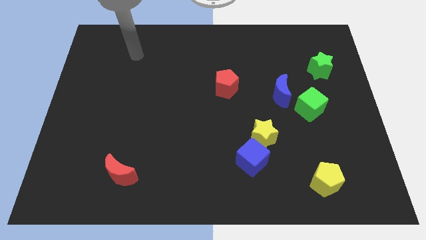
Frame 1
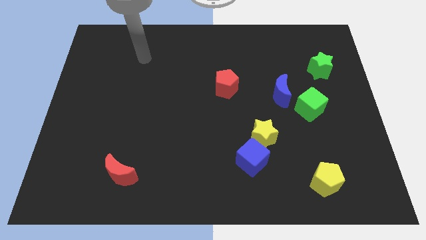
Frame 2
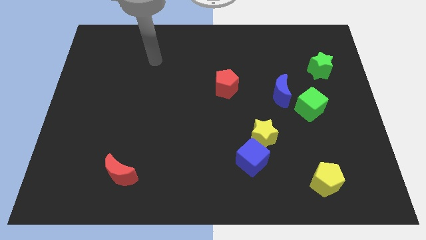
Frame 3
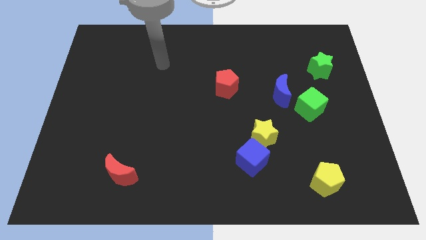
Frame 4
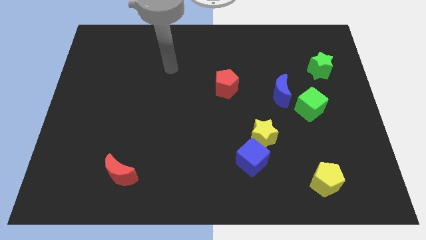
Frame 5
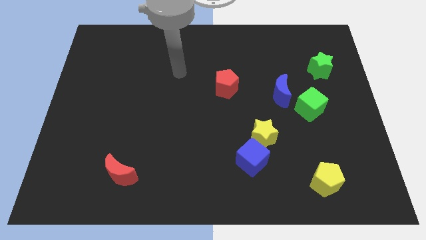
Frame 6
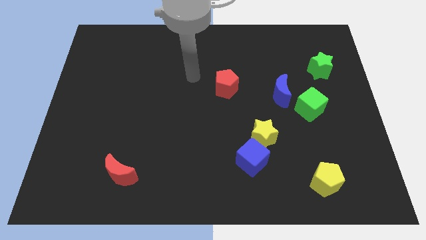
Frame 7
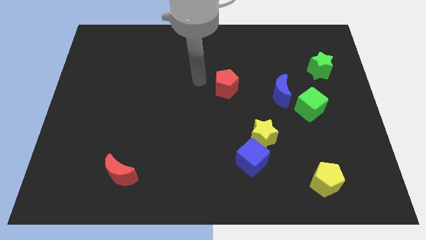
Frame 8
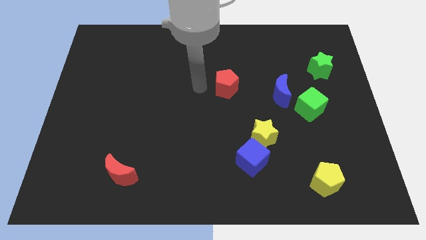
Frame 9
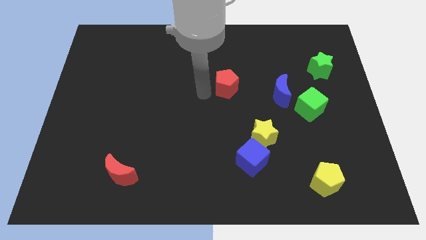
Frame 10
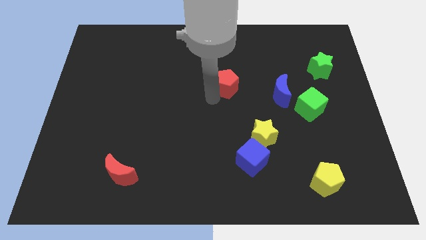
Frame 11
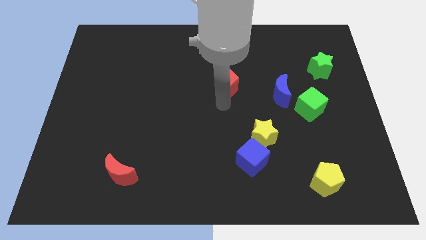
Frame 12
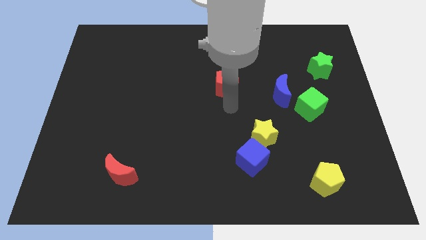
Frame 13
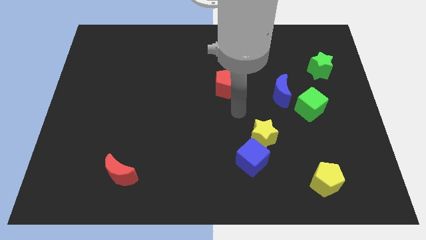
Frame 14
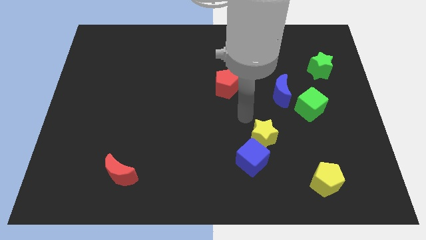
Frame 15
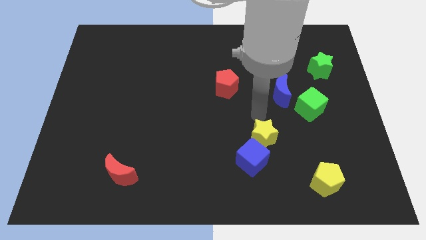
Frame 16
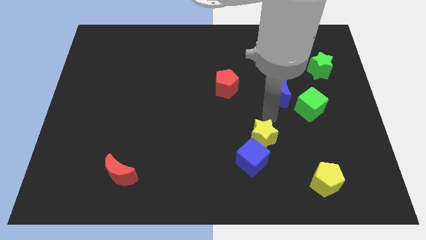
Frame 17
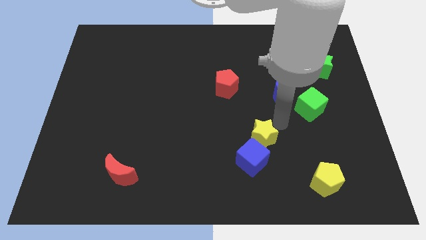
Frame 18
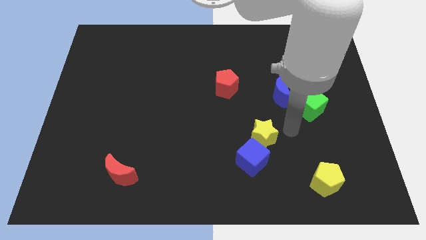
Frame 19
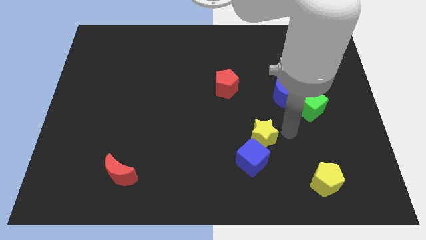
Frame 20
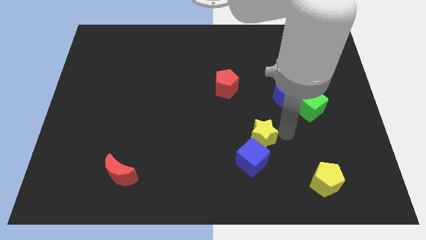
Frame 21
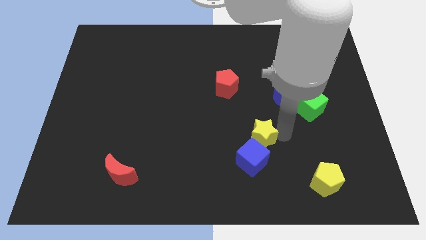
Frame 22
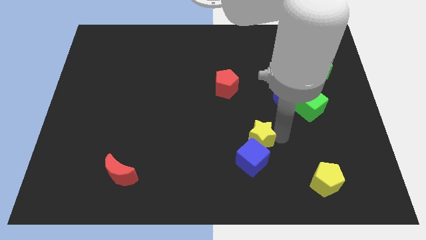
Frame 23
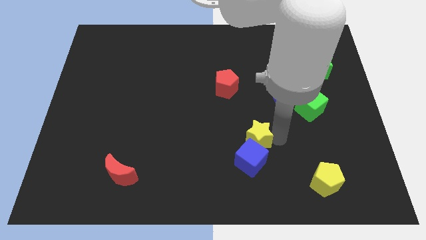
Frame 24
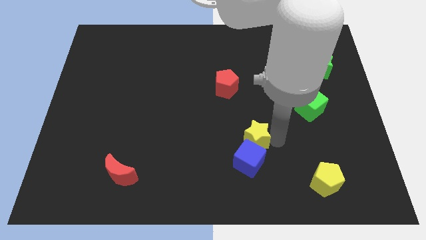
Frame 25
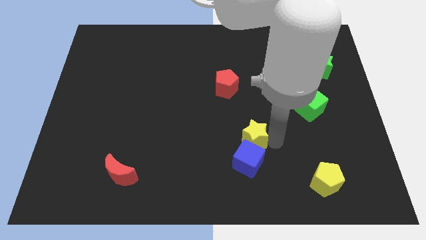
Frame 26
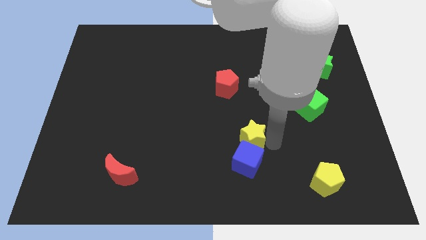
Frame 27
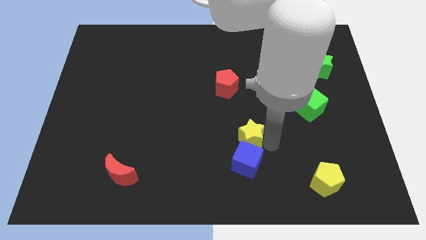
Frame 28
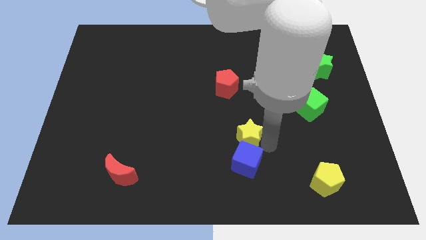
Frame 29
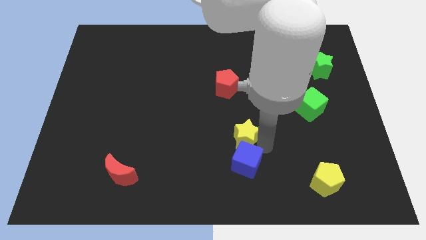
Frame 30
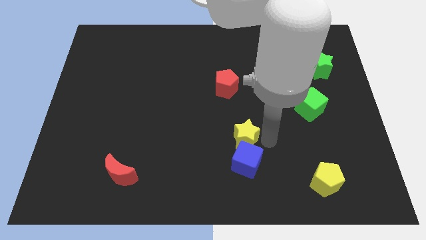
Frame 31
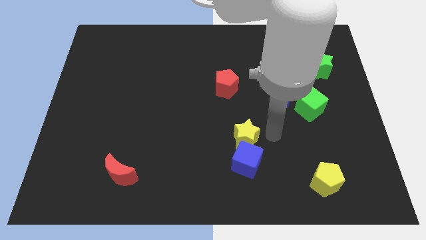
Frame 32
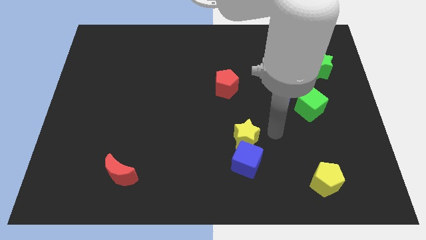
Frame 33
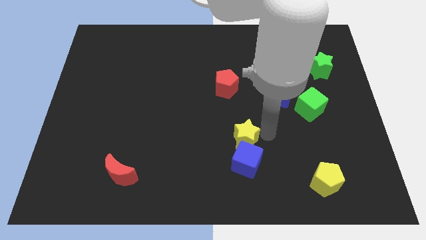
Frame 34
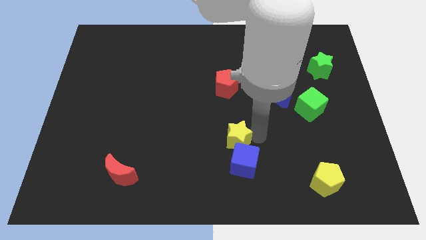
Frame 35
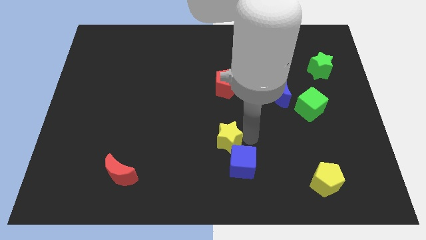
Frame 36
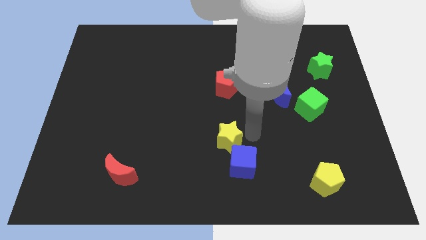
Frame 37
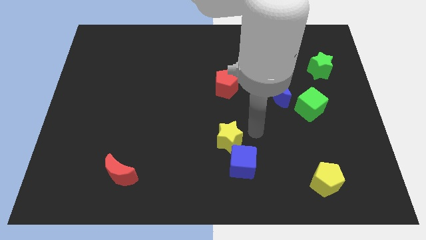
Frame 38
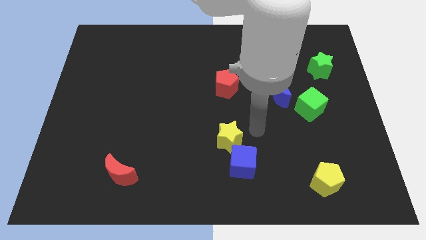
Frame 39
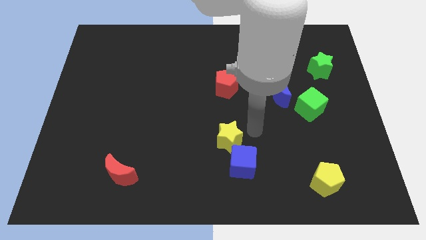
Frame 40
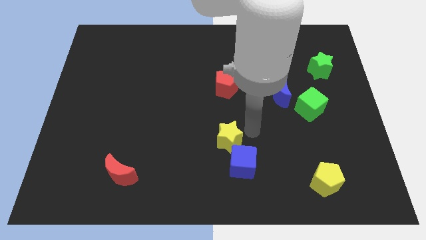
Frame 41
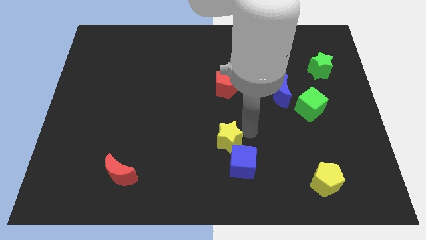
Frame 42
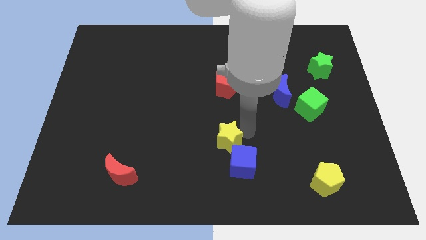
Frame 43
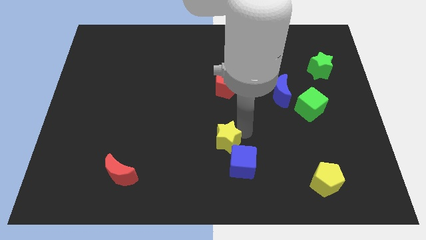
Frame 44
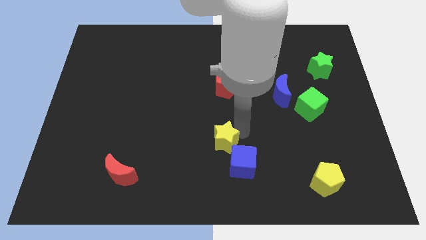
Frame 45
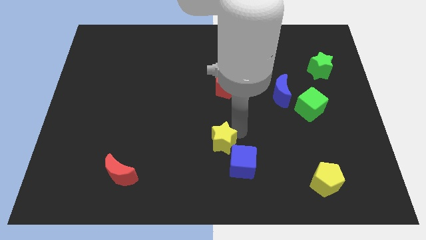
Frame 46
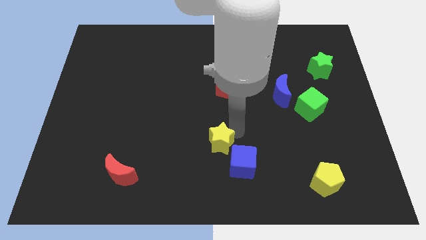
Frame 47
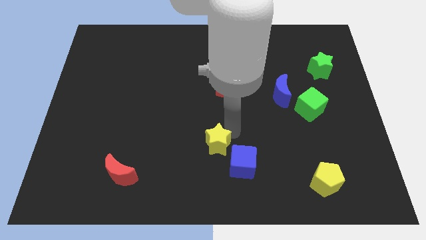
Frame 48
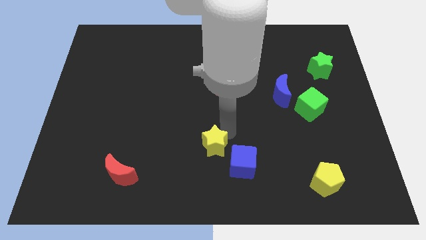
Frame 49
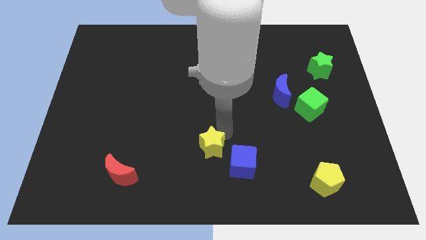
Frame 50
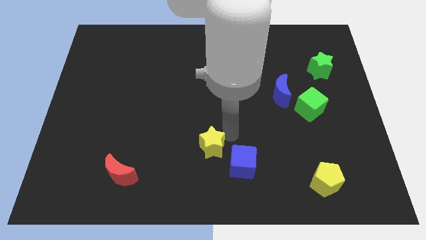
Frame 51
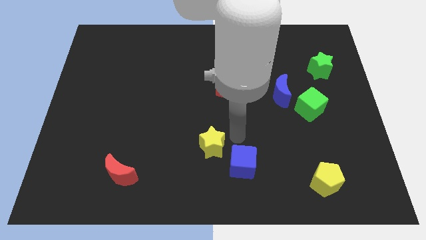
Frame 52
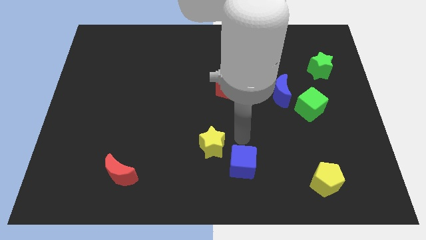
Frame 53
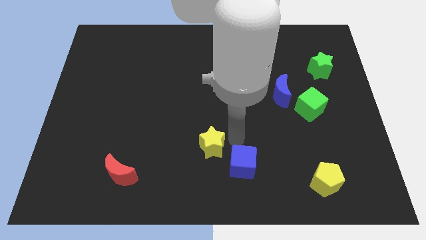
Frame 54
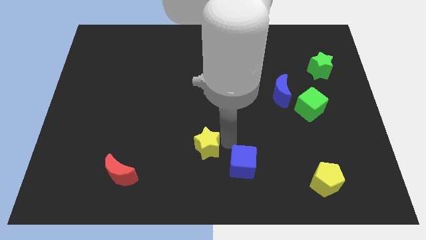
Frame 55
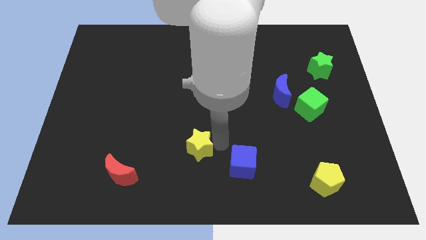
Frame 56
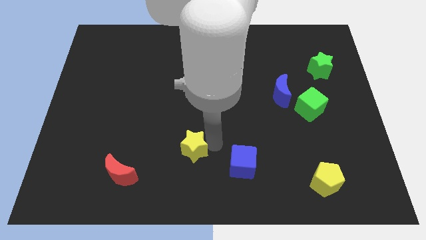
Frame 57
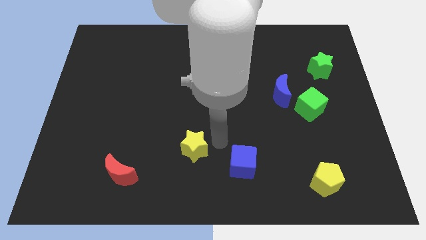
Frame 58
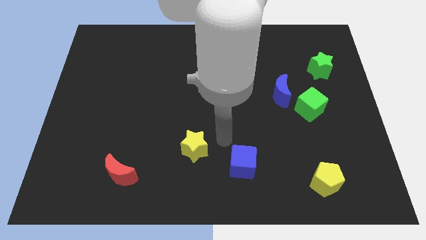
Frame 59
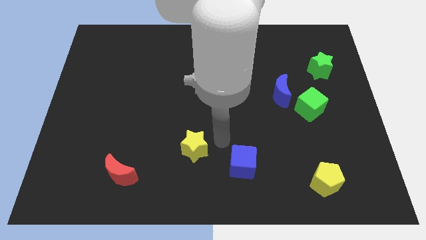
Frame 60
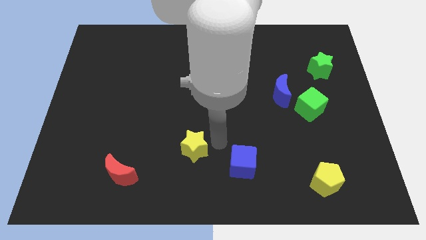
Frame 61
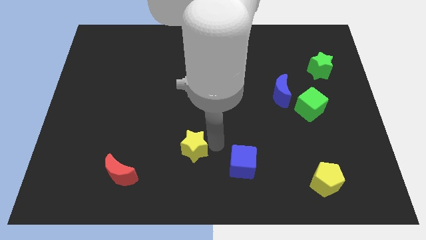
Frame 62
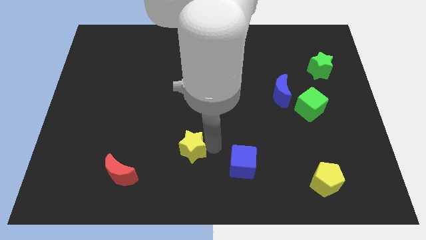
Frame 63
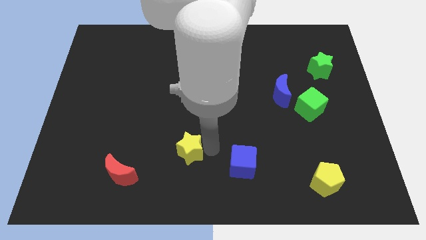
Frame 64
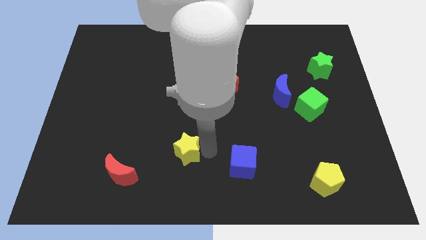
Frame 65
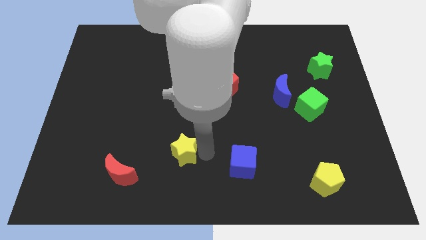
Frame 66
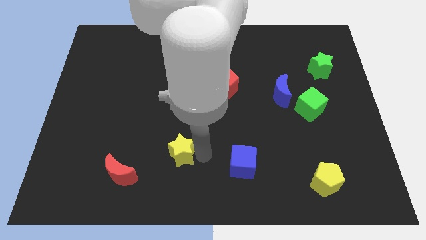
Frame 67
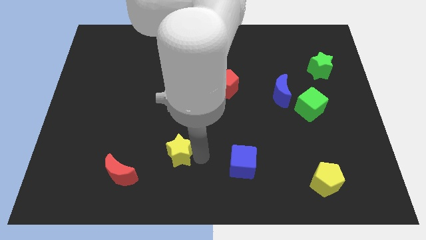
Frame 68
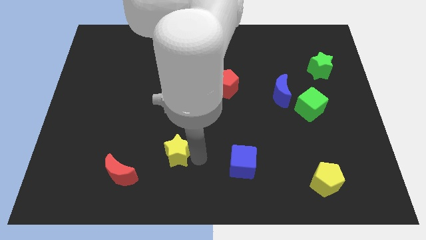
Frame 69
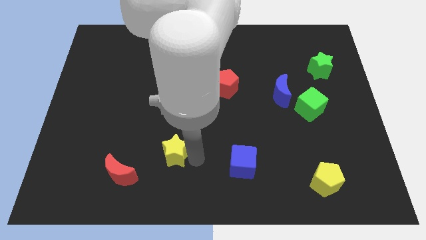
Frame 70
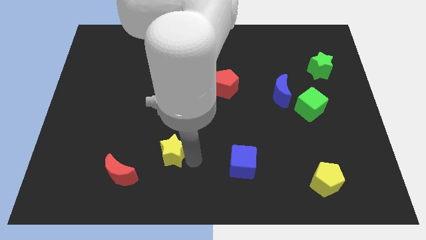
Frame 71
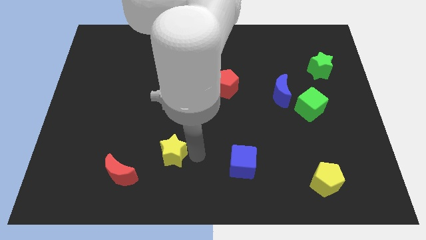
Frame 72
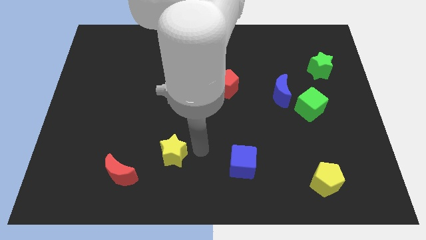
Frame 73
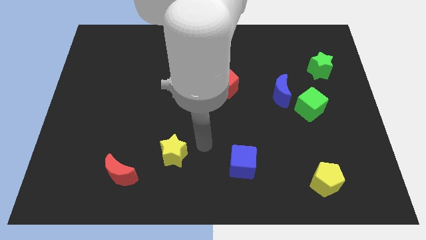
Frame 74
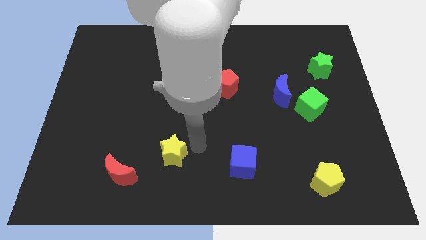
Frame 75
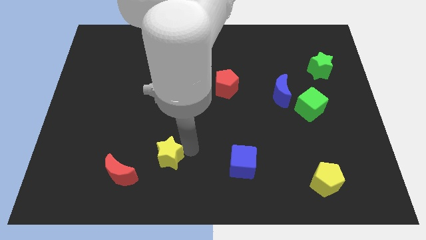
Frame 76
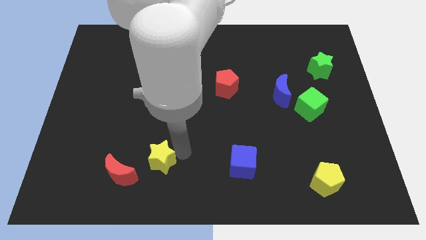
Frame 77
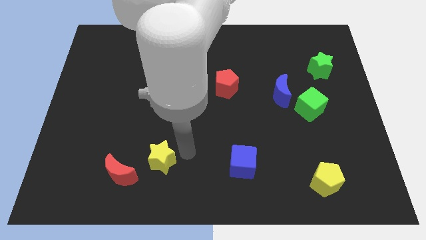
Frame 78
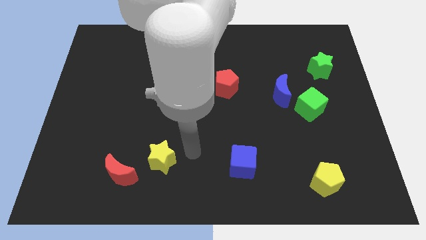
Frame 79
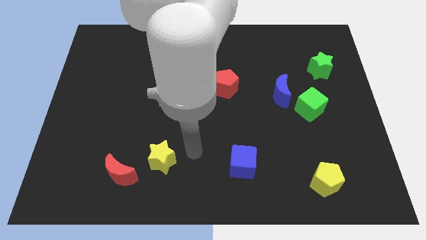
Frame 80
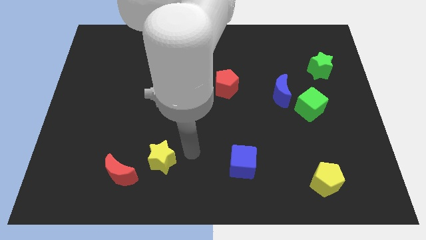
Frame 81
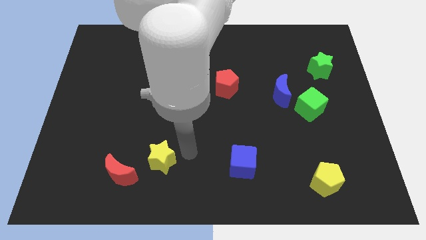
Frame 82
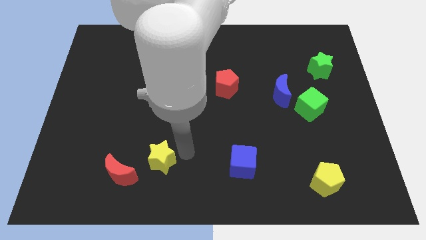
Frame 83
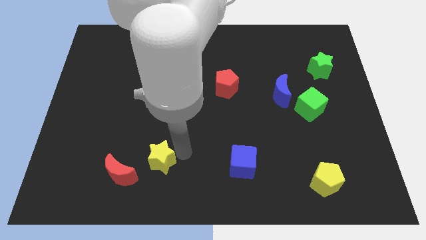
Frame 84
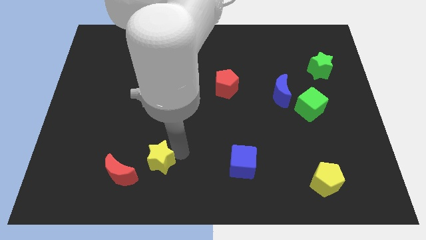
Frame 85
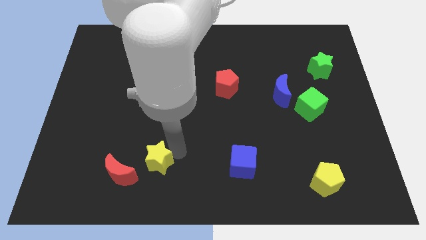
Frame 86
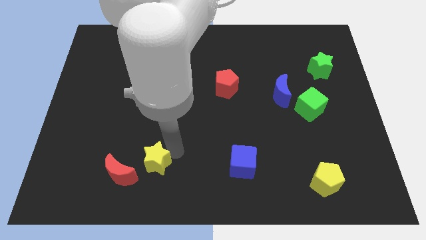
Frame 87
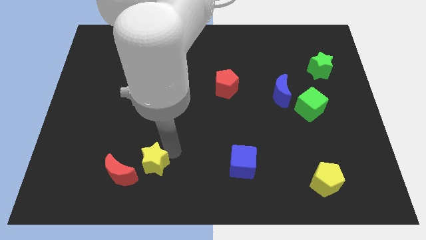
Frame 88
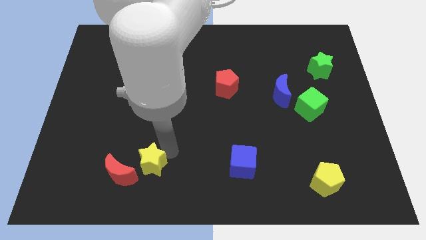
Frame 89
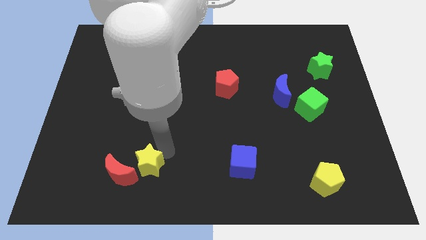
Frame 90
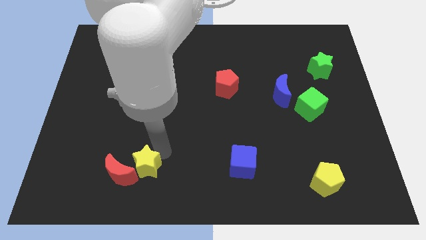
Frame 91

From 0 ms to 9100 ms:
push the yellow star close to the red moon
